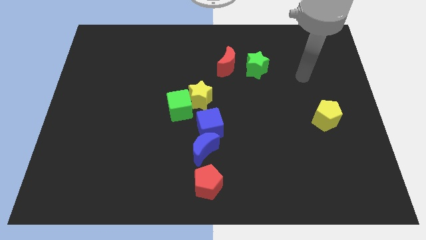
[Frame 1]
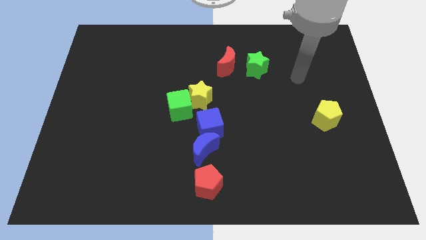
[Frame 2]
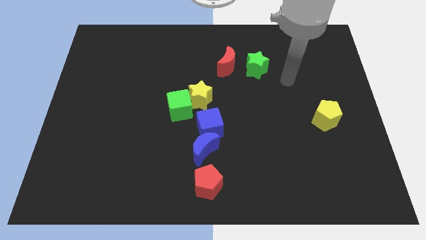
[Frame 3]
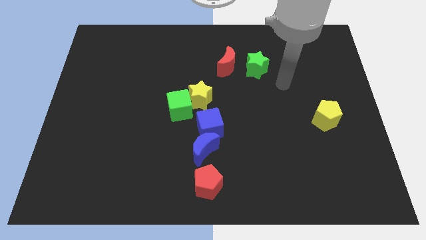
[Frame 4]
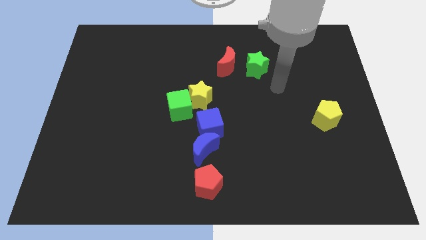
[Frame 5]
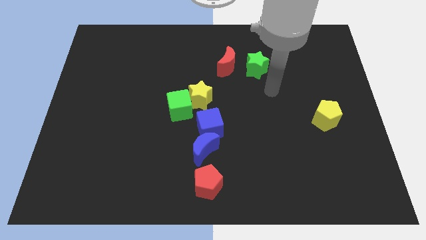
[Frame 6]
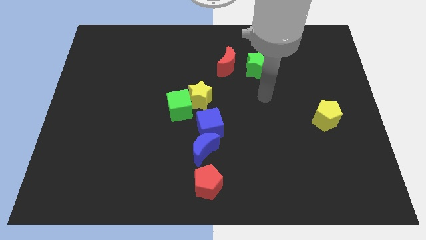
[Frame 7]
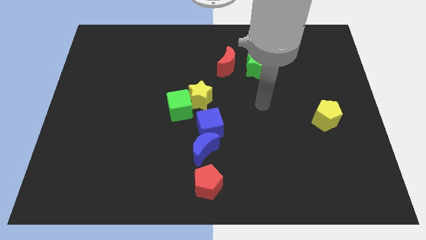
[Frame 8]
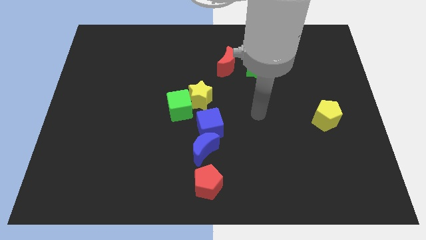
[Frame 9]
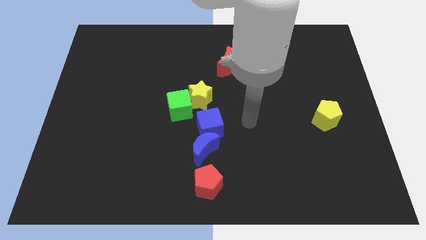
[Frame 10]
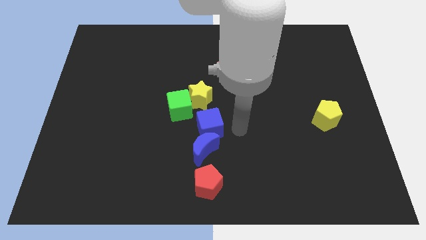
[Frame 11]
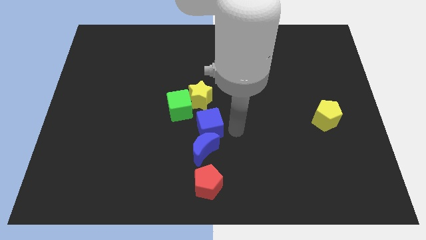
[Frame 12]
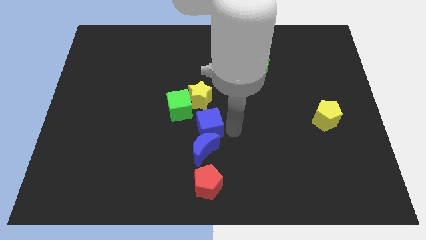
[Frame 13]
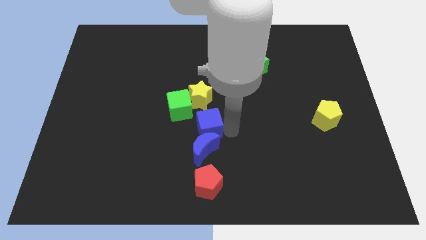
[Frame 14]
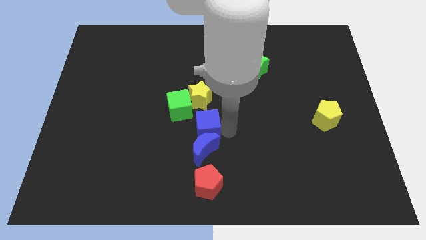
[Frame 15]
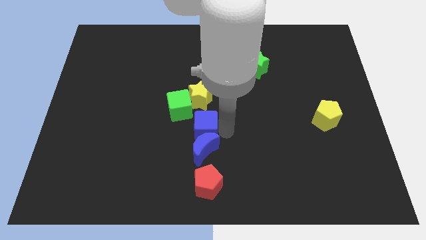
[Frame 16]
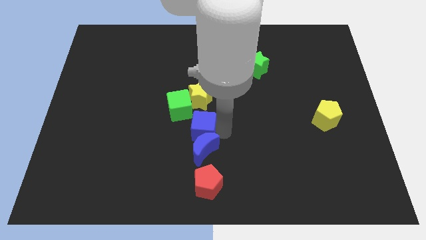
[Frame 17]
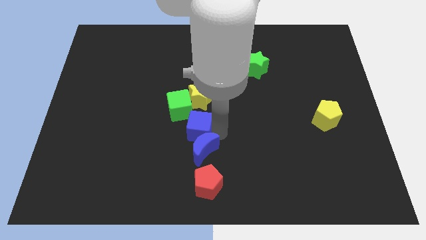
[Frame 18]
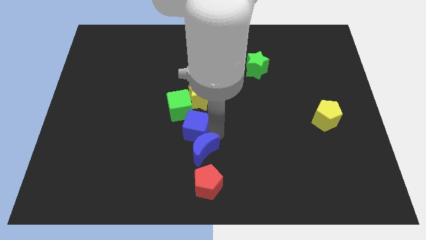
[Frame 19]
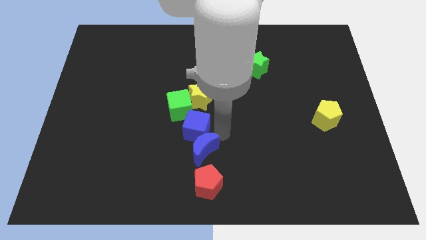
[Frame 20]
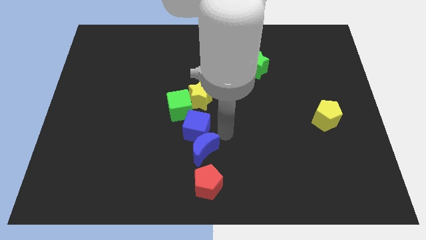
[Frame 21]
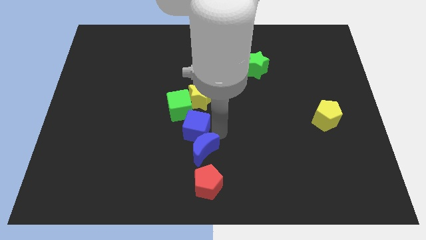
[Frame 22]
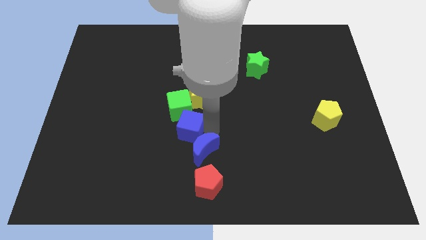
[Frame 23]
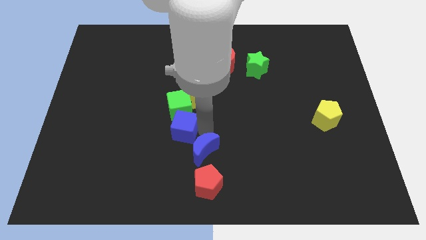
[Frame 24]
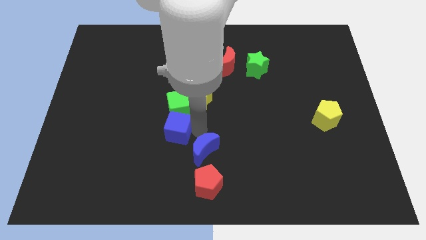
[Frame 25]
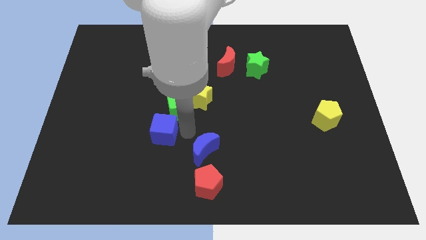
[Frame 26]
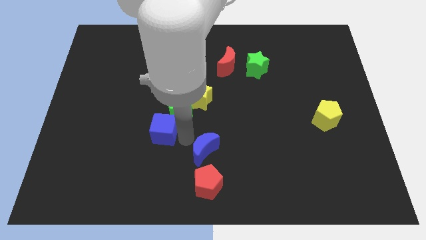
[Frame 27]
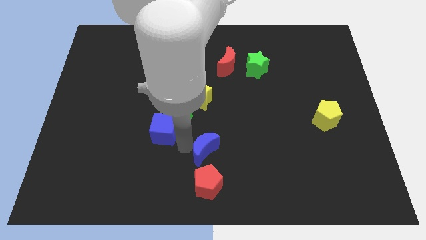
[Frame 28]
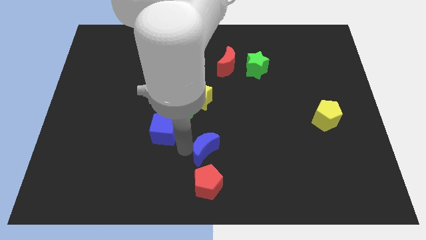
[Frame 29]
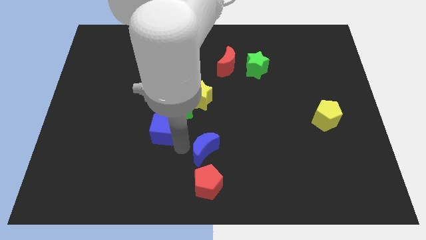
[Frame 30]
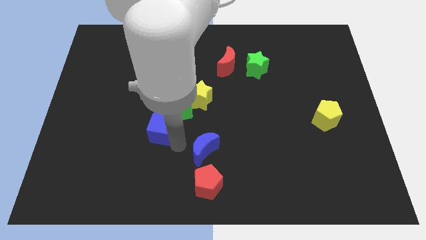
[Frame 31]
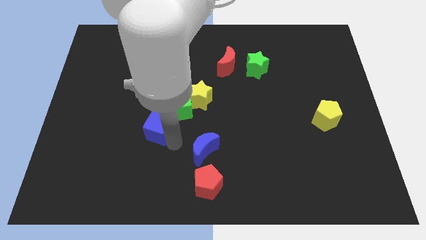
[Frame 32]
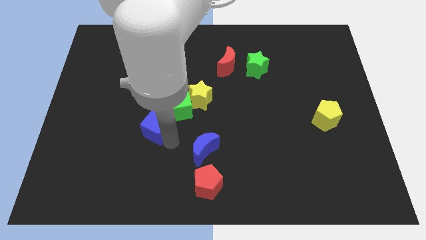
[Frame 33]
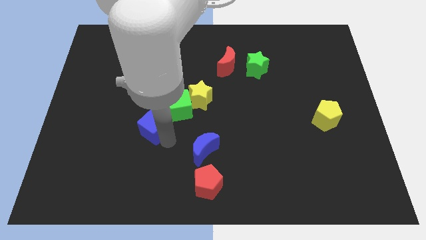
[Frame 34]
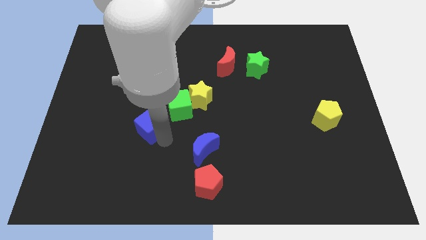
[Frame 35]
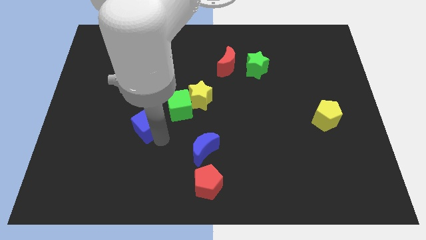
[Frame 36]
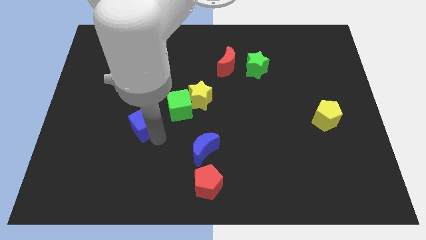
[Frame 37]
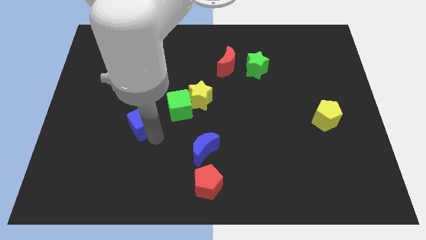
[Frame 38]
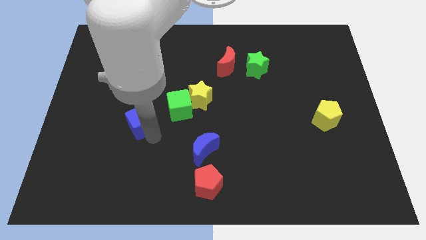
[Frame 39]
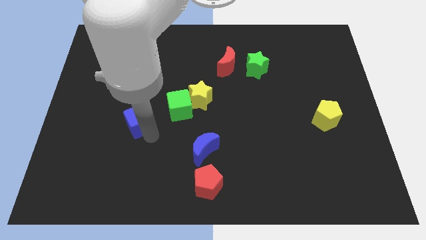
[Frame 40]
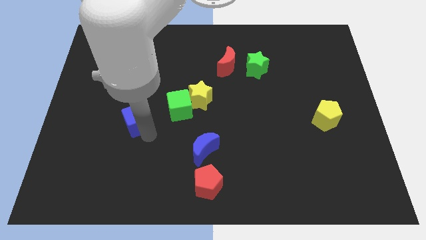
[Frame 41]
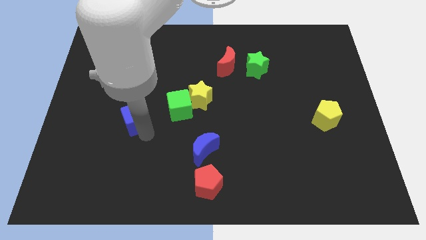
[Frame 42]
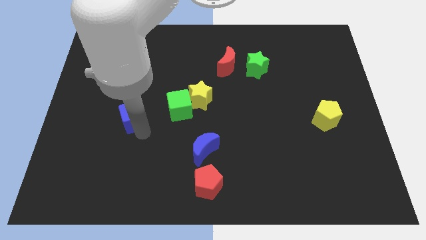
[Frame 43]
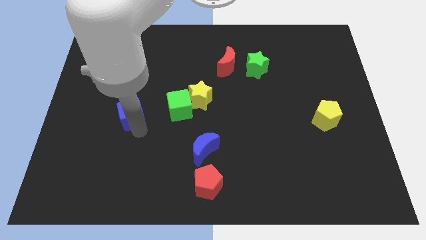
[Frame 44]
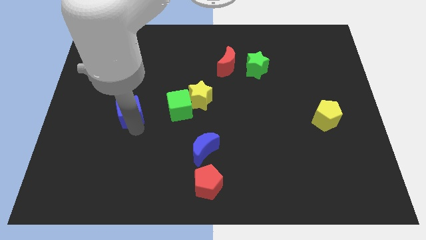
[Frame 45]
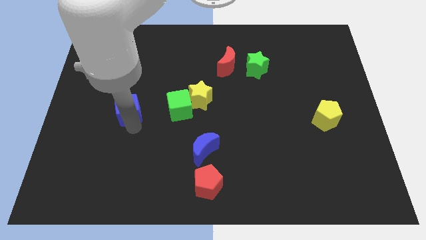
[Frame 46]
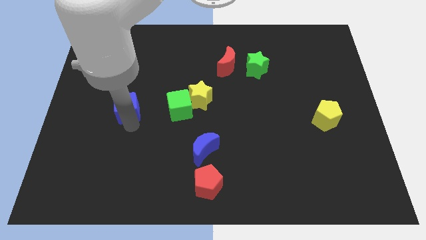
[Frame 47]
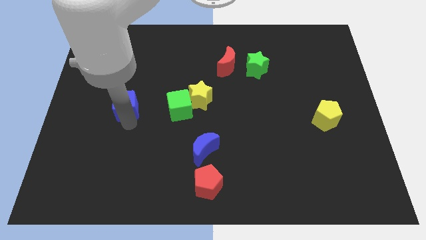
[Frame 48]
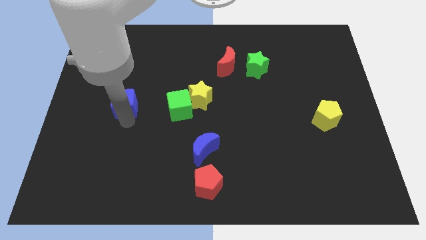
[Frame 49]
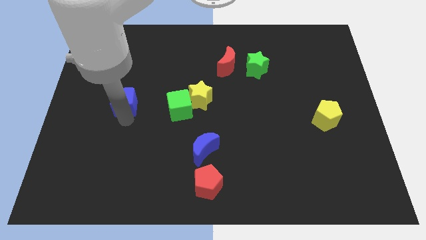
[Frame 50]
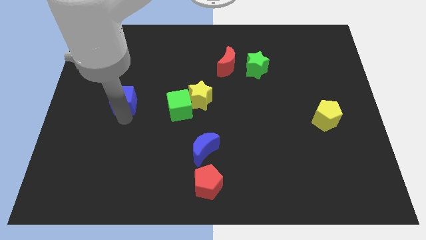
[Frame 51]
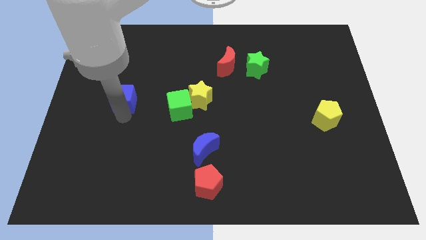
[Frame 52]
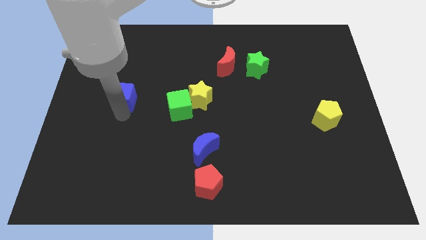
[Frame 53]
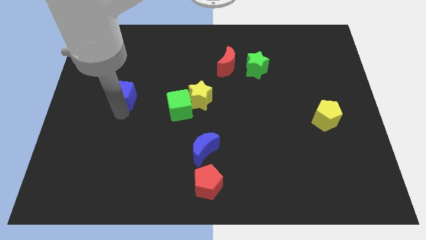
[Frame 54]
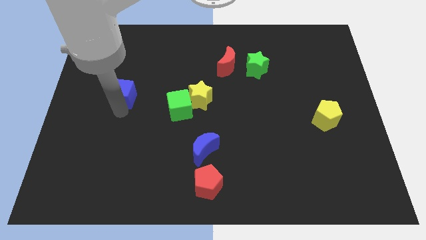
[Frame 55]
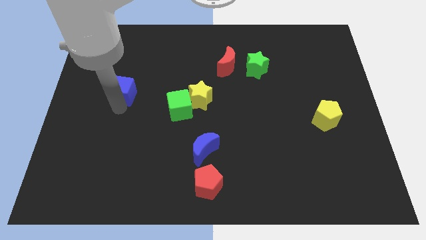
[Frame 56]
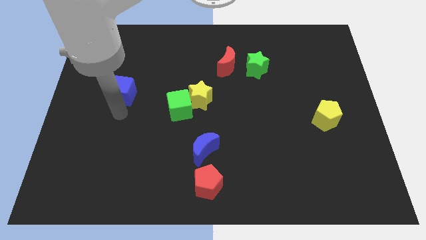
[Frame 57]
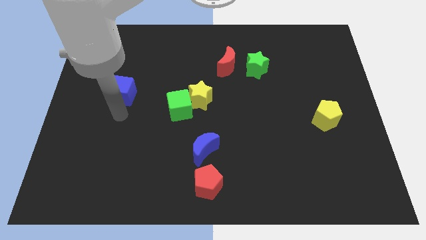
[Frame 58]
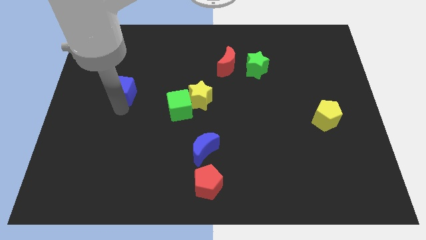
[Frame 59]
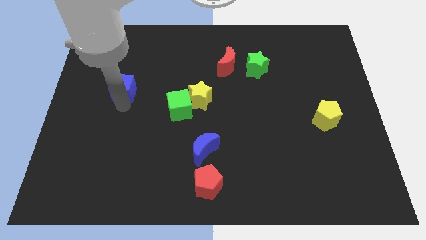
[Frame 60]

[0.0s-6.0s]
push the blue cube up and to the left

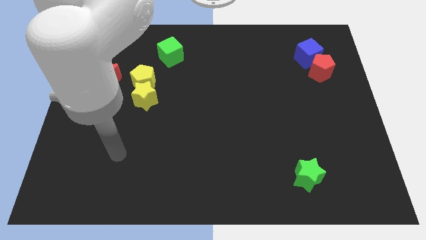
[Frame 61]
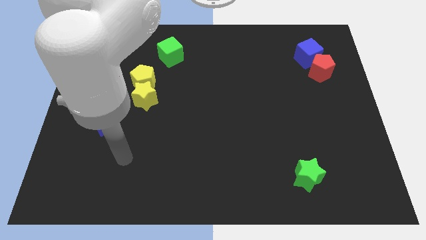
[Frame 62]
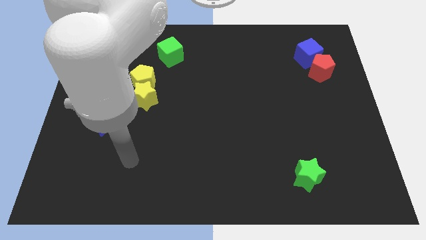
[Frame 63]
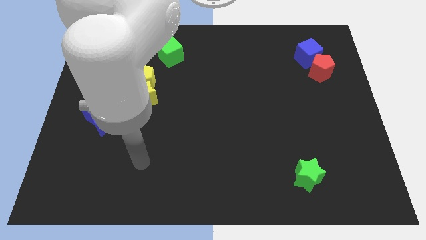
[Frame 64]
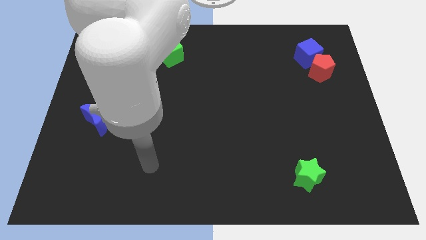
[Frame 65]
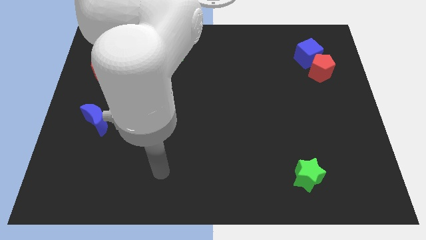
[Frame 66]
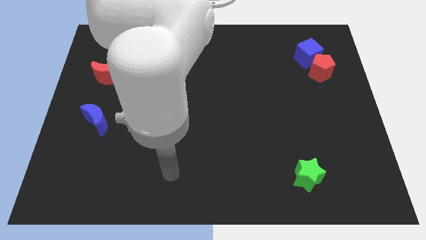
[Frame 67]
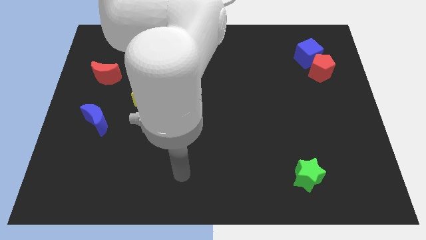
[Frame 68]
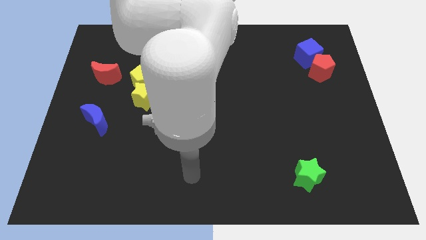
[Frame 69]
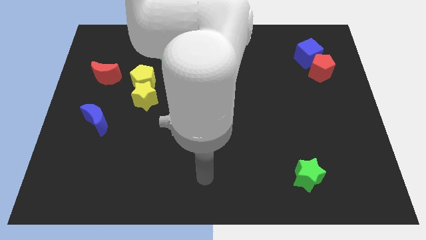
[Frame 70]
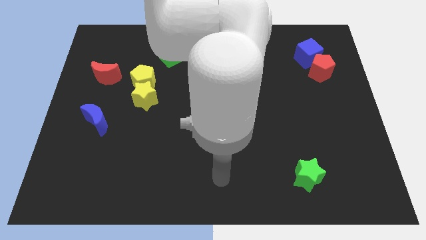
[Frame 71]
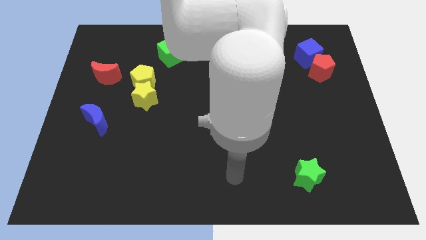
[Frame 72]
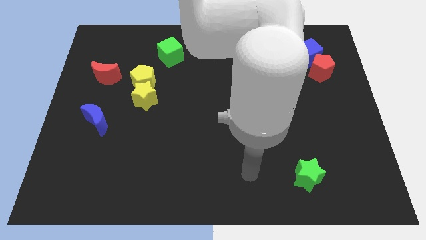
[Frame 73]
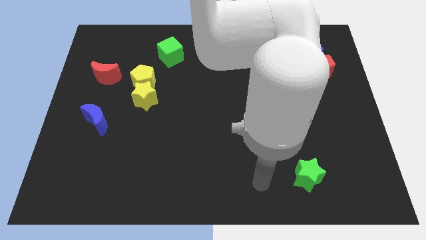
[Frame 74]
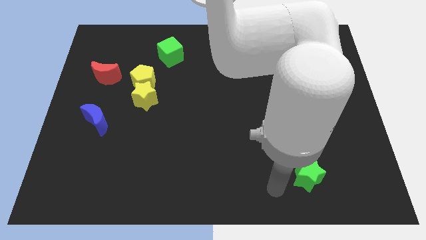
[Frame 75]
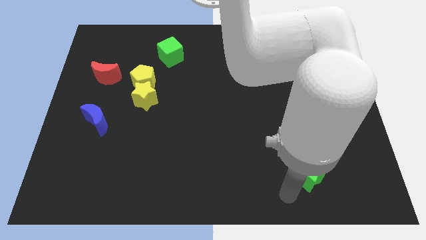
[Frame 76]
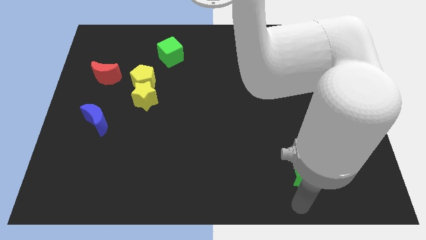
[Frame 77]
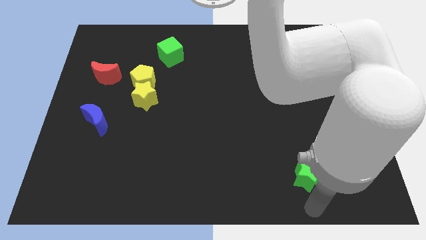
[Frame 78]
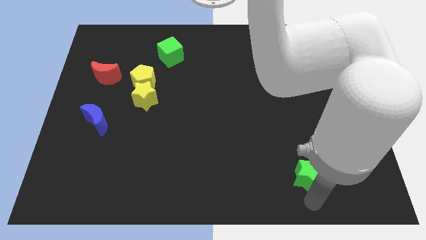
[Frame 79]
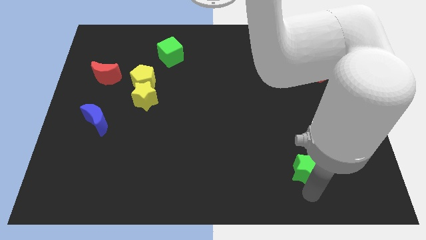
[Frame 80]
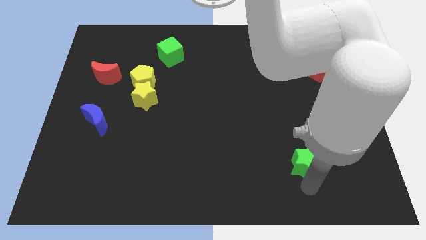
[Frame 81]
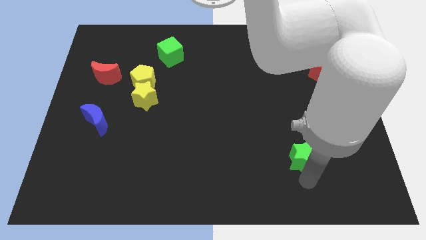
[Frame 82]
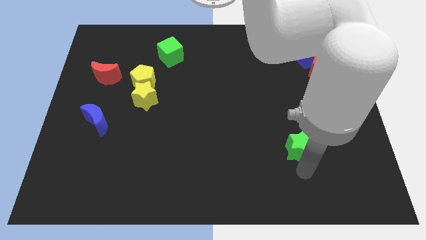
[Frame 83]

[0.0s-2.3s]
slightly move the green star upwards
